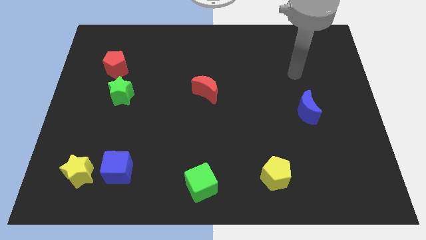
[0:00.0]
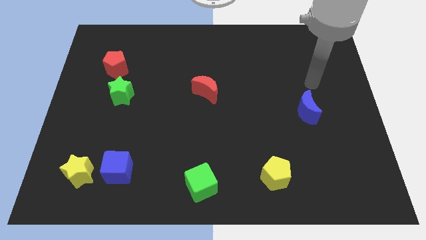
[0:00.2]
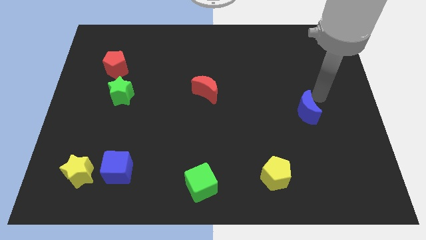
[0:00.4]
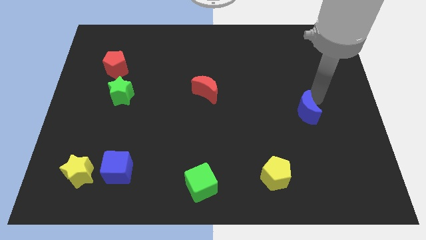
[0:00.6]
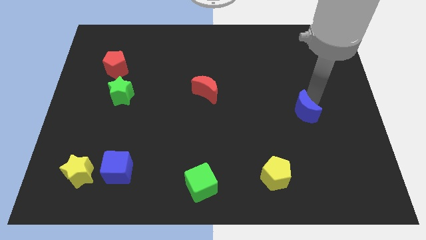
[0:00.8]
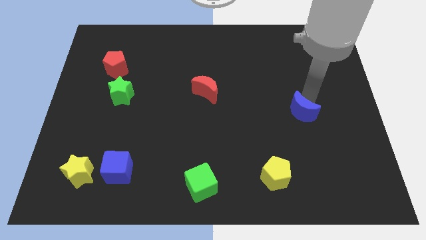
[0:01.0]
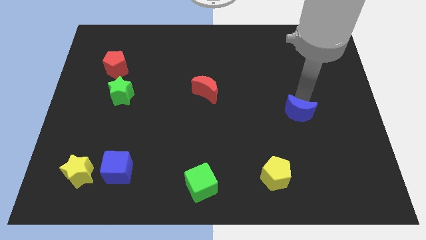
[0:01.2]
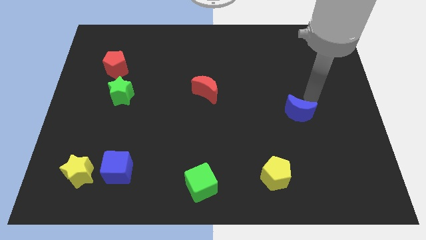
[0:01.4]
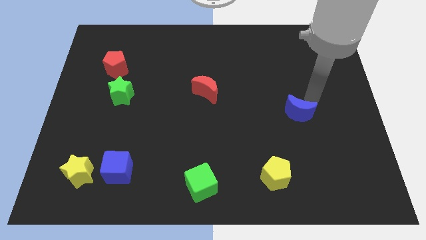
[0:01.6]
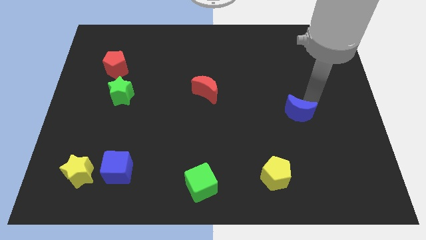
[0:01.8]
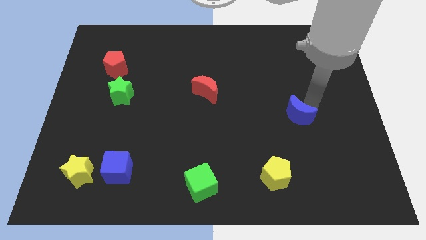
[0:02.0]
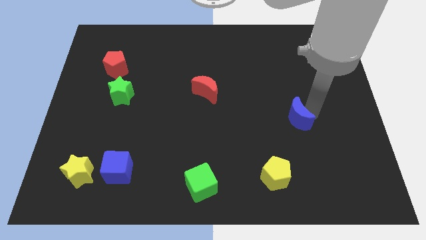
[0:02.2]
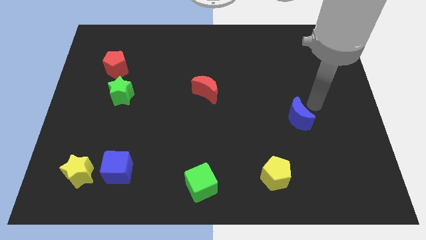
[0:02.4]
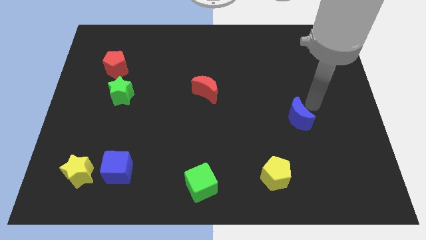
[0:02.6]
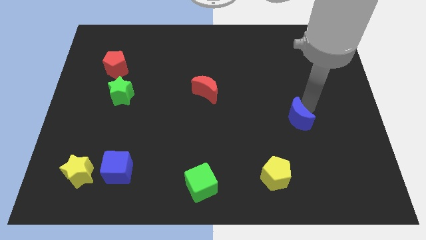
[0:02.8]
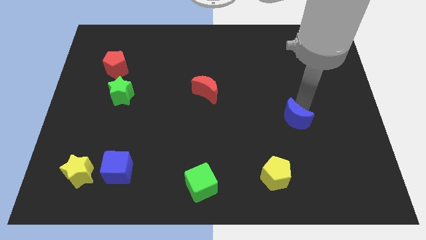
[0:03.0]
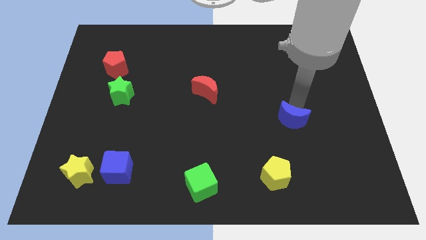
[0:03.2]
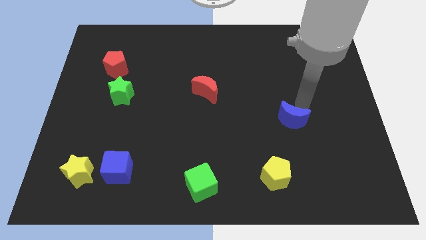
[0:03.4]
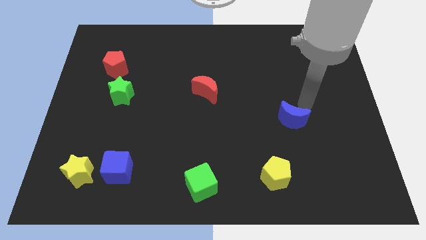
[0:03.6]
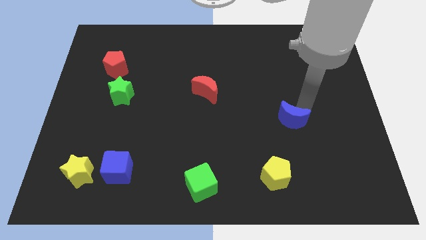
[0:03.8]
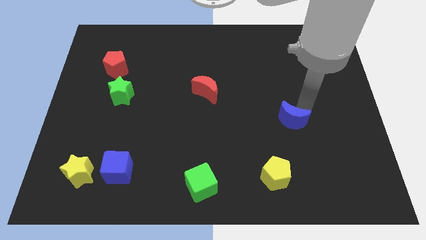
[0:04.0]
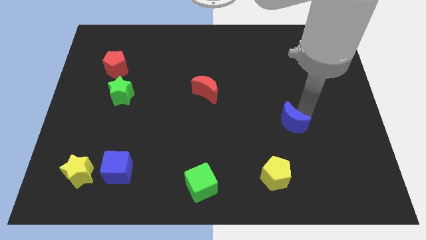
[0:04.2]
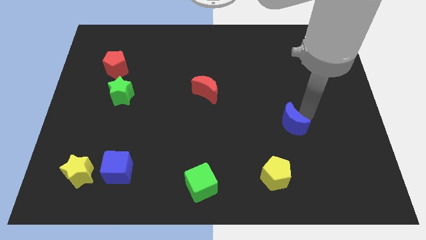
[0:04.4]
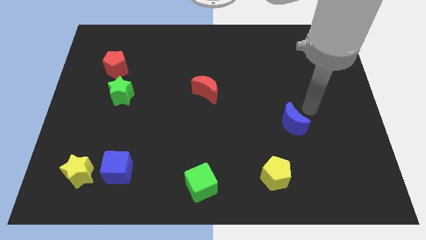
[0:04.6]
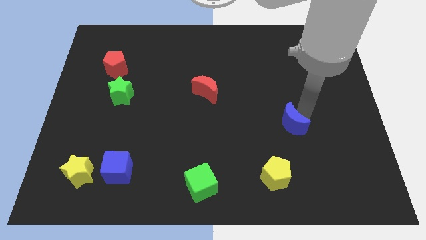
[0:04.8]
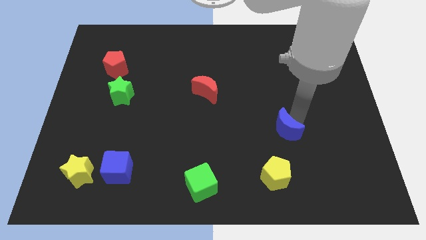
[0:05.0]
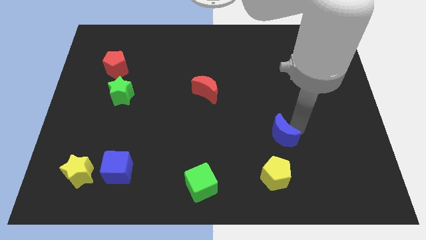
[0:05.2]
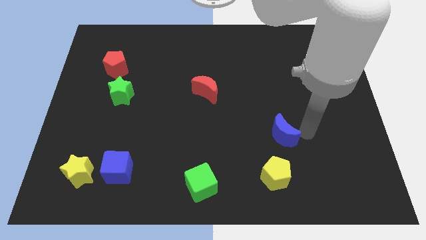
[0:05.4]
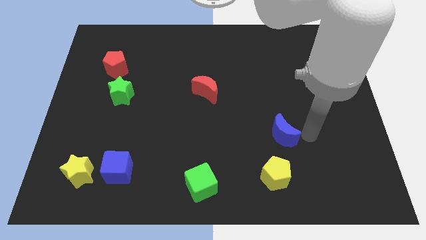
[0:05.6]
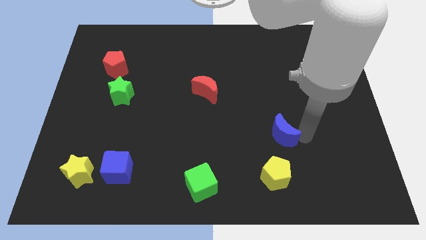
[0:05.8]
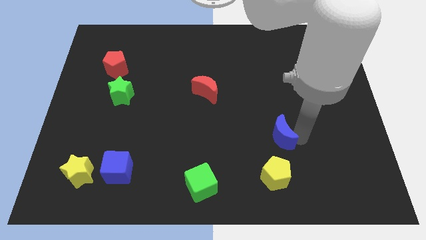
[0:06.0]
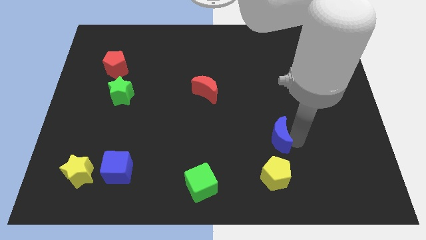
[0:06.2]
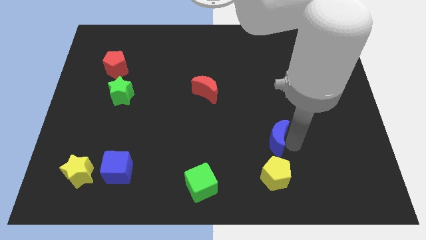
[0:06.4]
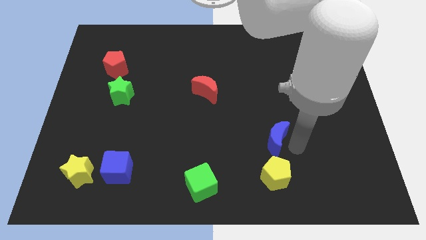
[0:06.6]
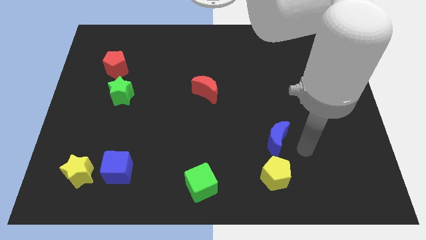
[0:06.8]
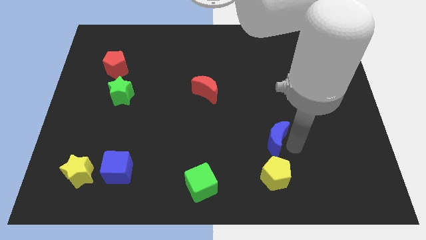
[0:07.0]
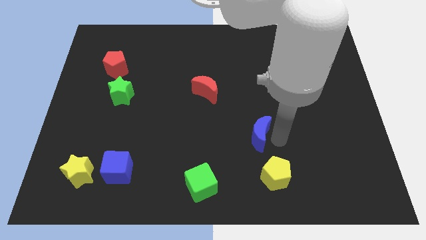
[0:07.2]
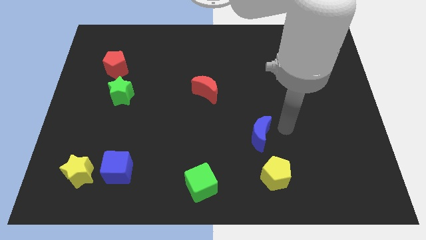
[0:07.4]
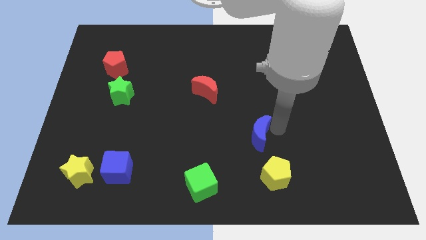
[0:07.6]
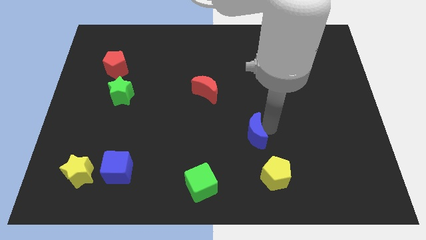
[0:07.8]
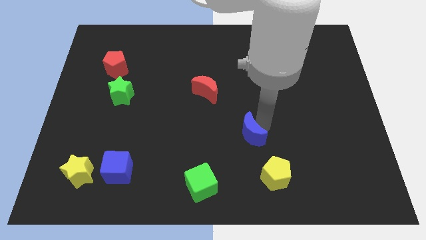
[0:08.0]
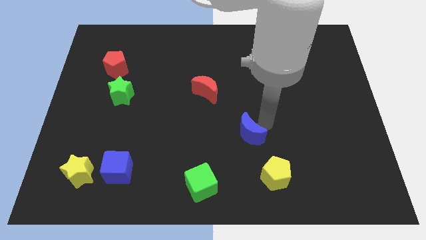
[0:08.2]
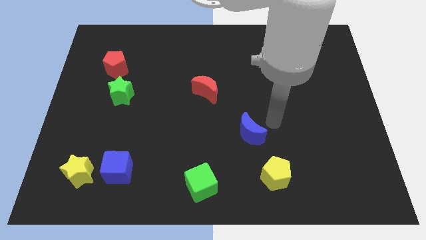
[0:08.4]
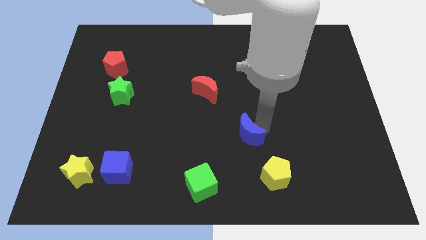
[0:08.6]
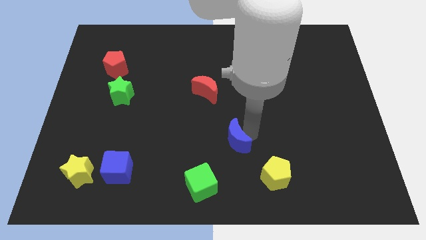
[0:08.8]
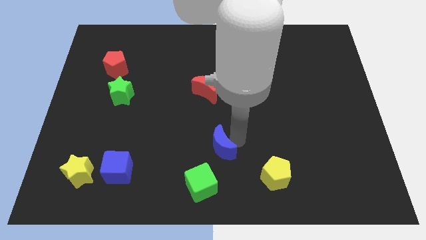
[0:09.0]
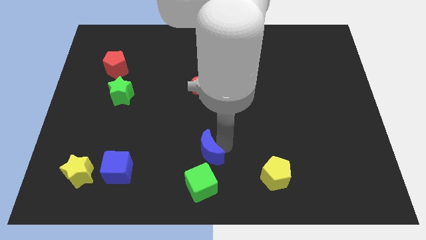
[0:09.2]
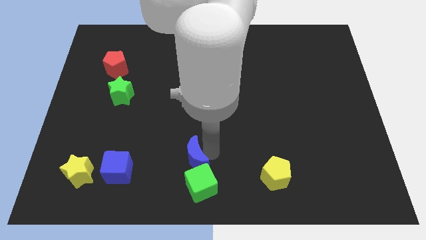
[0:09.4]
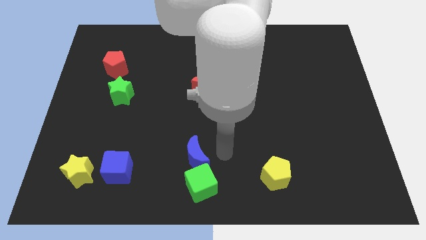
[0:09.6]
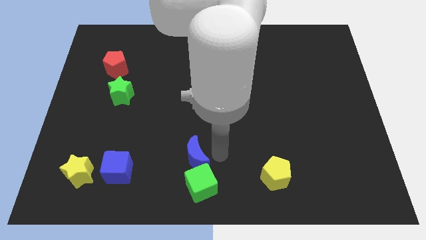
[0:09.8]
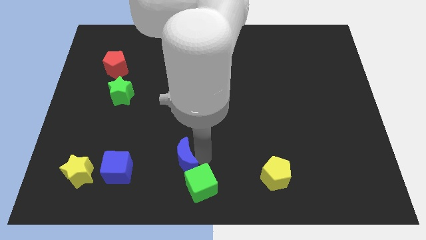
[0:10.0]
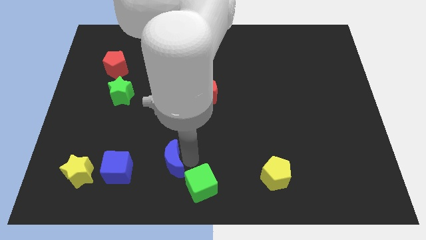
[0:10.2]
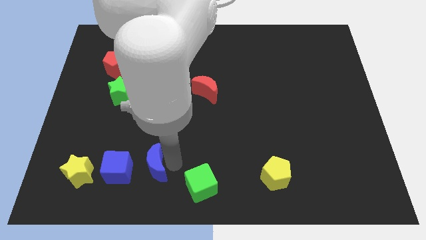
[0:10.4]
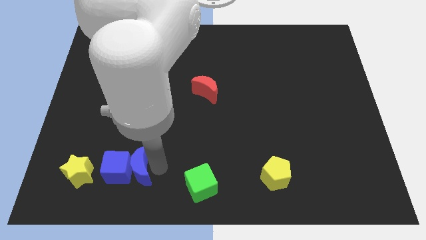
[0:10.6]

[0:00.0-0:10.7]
slide the blue moon to the blue cube
